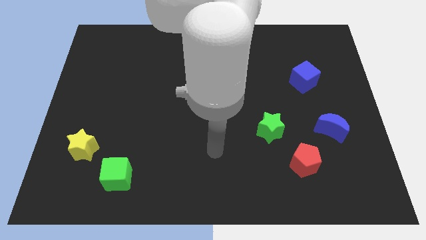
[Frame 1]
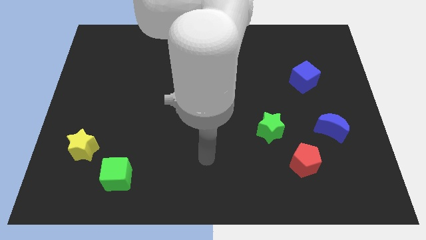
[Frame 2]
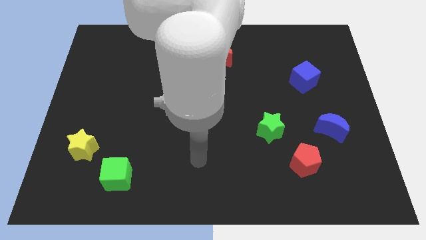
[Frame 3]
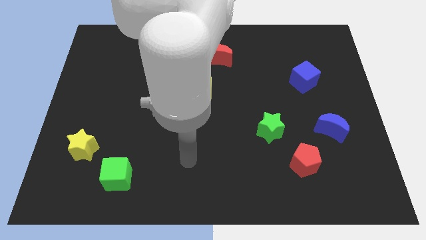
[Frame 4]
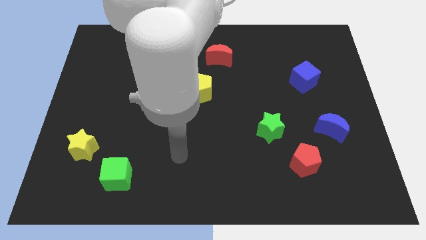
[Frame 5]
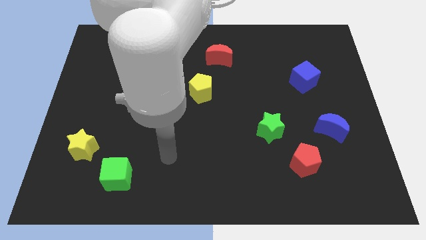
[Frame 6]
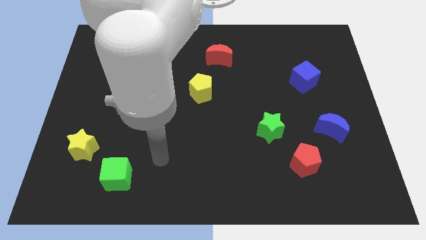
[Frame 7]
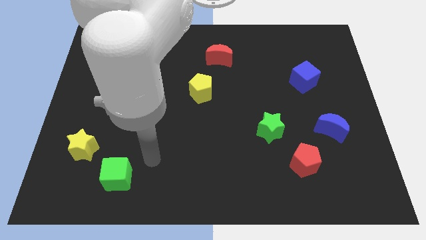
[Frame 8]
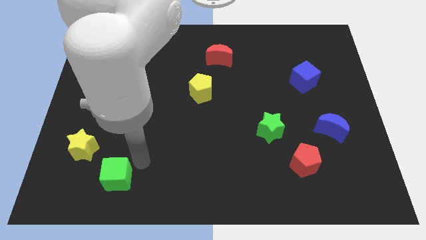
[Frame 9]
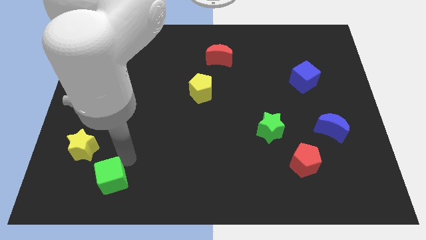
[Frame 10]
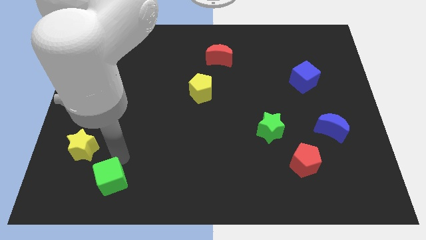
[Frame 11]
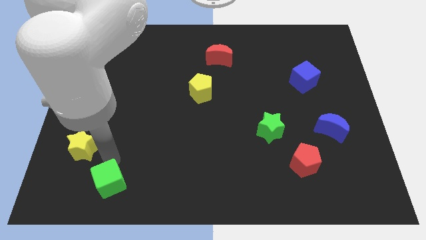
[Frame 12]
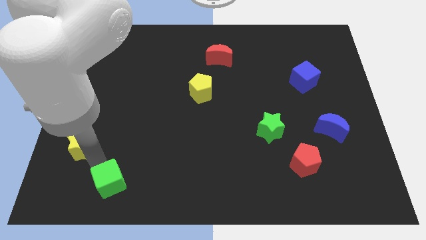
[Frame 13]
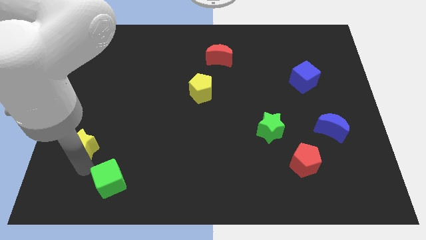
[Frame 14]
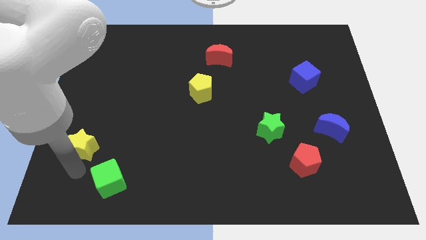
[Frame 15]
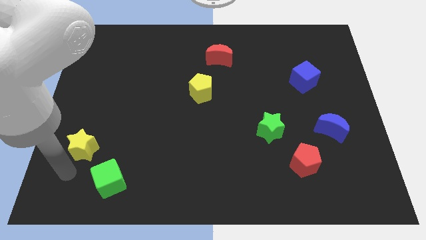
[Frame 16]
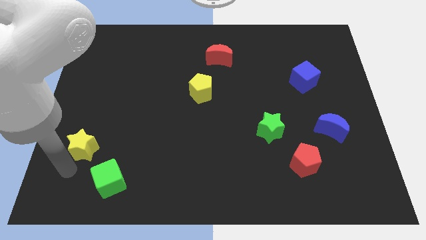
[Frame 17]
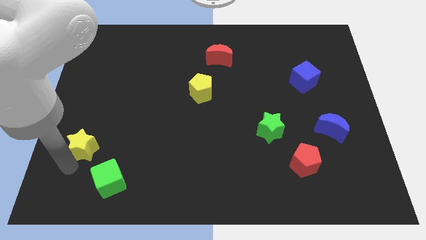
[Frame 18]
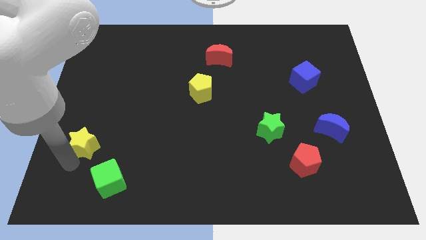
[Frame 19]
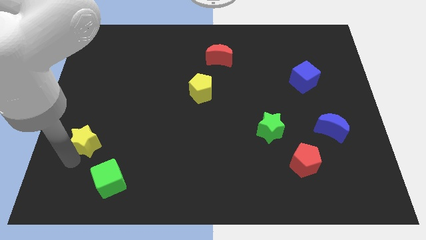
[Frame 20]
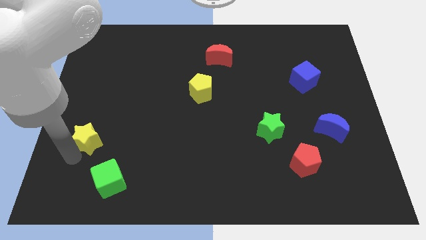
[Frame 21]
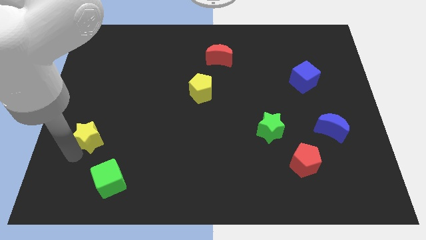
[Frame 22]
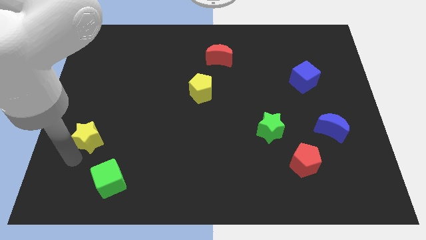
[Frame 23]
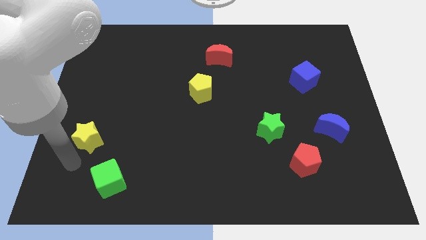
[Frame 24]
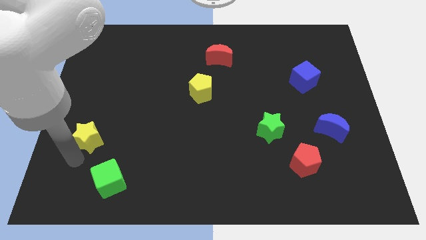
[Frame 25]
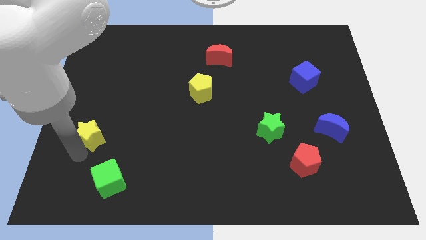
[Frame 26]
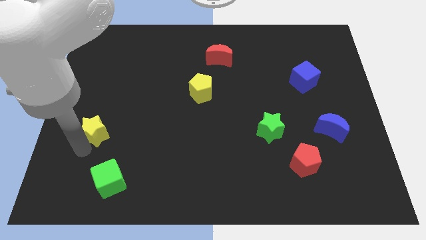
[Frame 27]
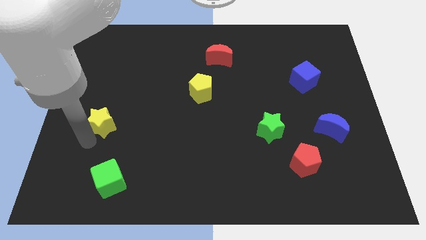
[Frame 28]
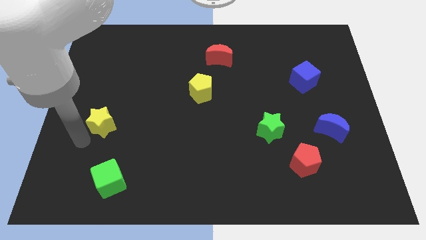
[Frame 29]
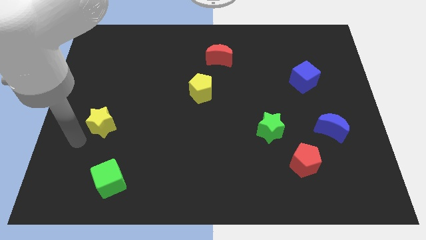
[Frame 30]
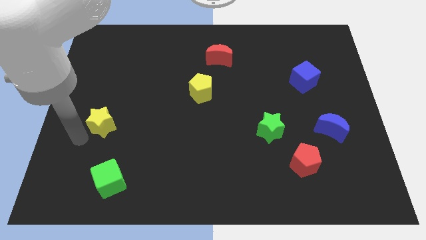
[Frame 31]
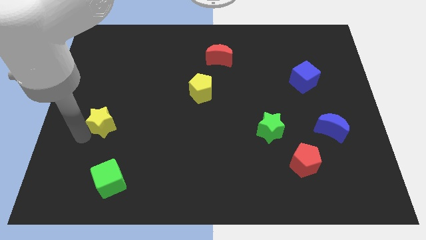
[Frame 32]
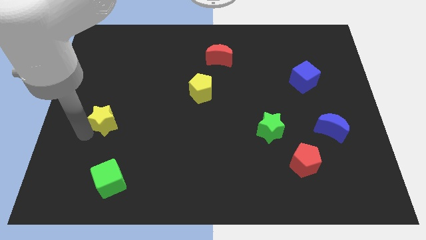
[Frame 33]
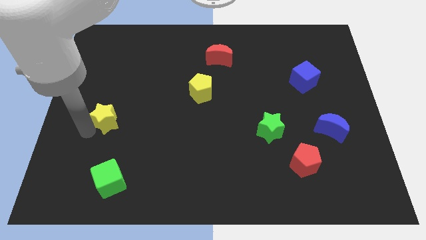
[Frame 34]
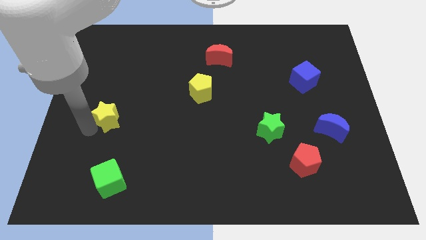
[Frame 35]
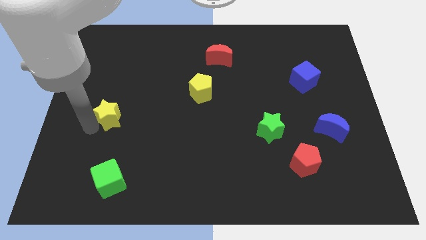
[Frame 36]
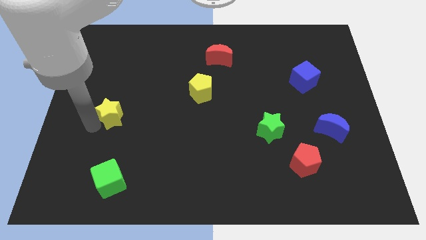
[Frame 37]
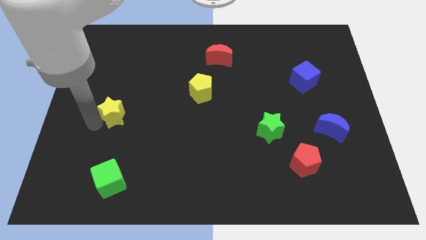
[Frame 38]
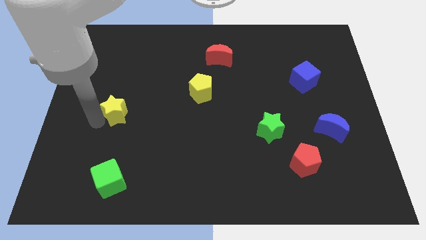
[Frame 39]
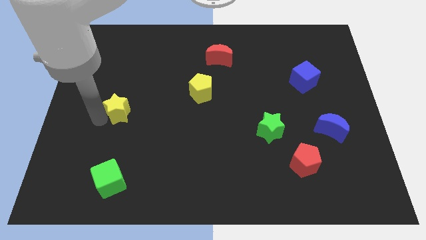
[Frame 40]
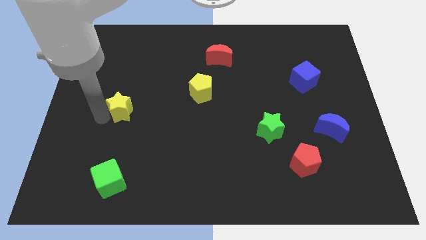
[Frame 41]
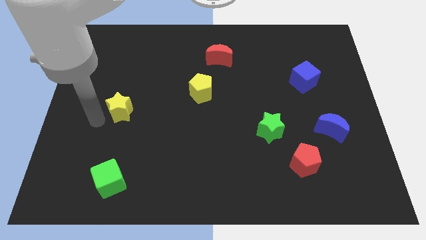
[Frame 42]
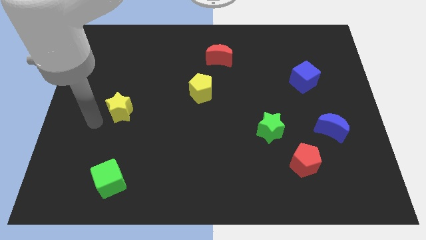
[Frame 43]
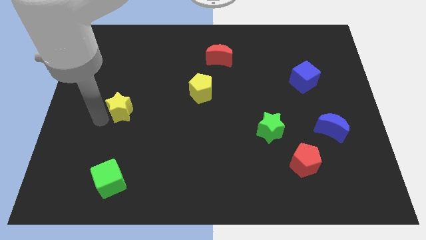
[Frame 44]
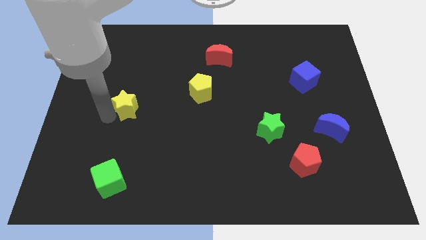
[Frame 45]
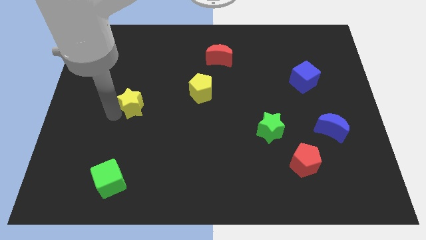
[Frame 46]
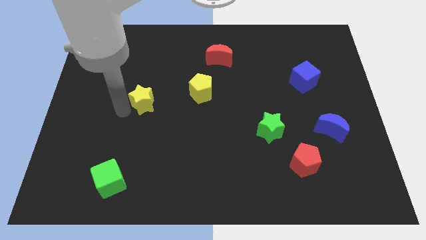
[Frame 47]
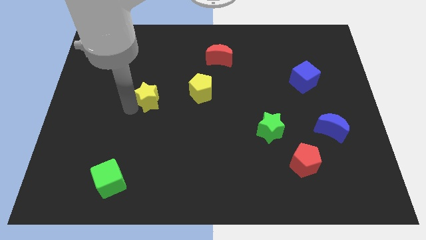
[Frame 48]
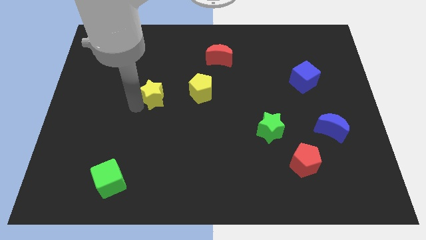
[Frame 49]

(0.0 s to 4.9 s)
push the yellow star upwards and right

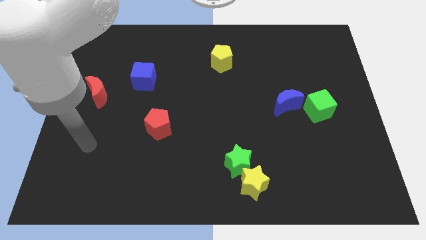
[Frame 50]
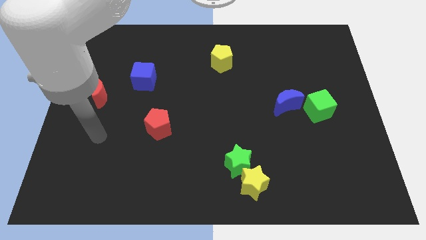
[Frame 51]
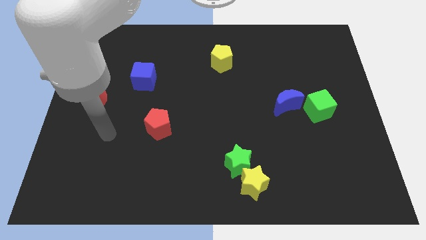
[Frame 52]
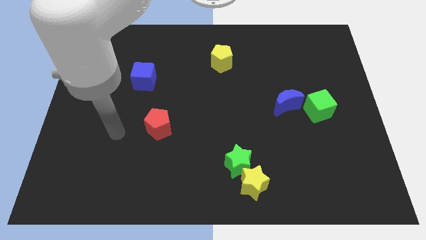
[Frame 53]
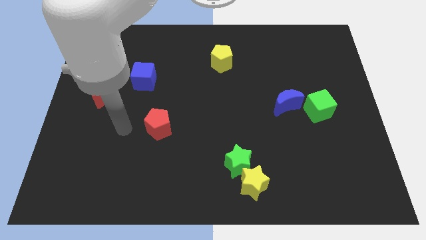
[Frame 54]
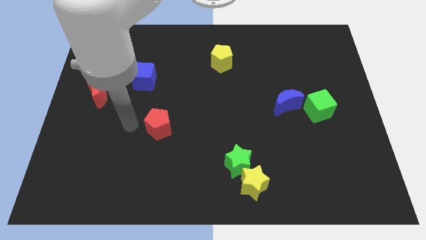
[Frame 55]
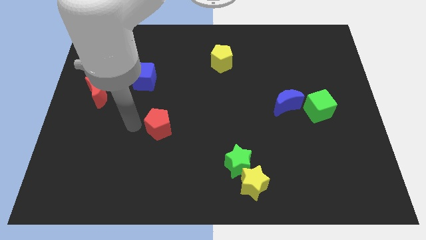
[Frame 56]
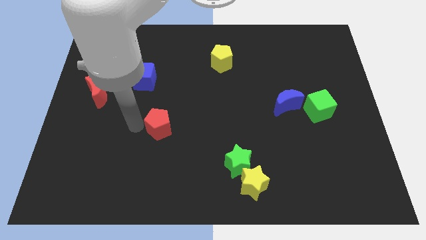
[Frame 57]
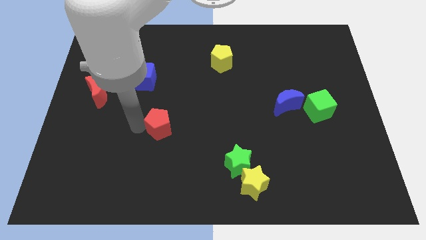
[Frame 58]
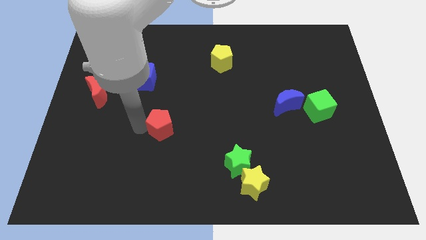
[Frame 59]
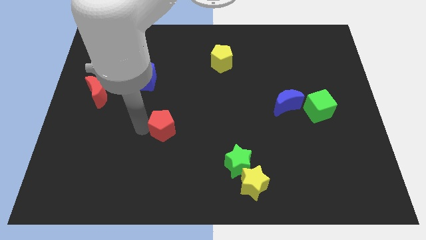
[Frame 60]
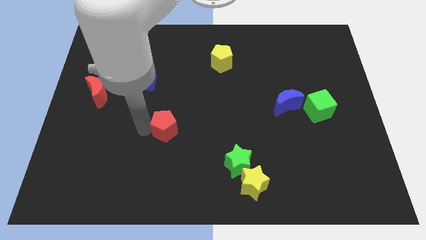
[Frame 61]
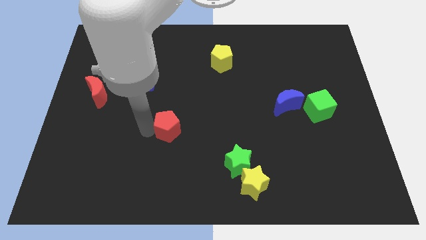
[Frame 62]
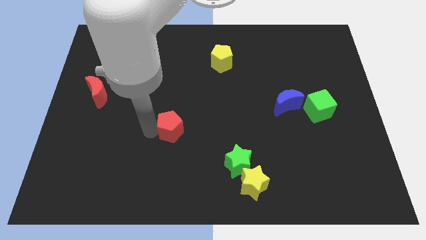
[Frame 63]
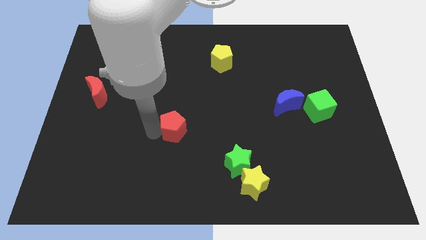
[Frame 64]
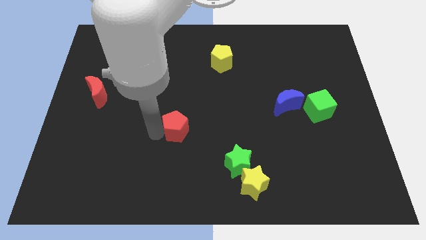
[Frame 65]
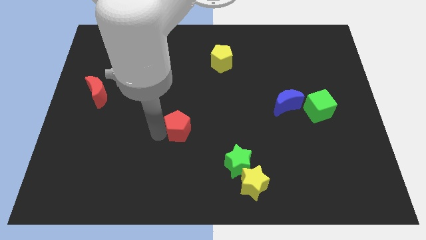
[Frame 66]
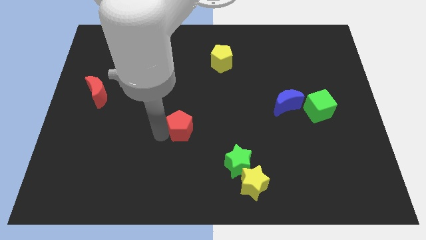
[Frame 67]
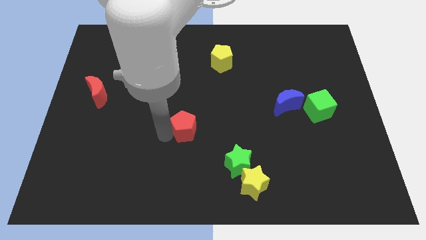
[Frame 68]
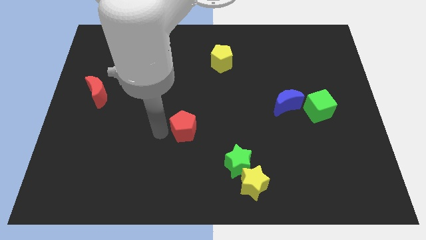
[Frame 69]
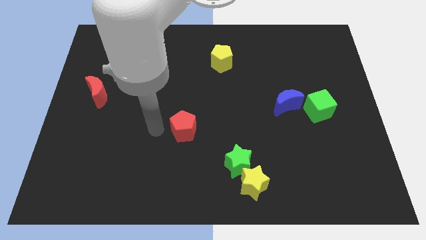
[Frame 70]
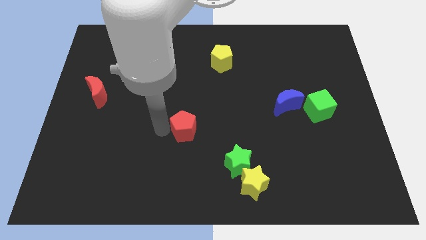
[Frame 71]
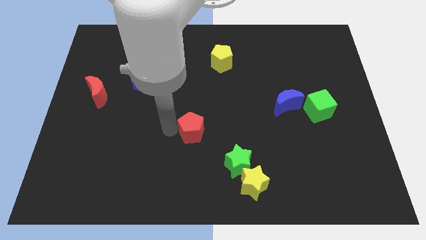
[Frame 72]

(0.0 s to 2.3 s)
slightly move the red pentagon right

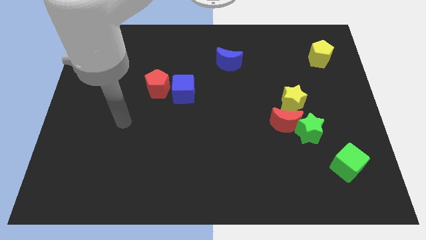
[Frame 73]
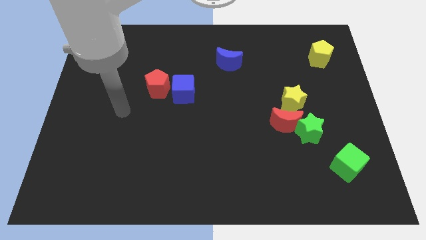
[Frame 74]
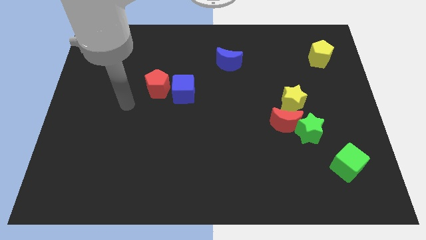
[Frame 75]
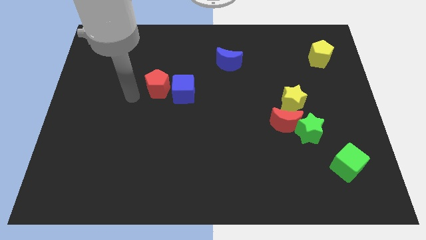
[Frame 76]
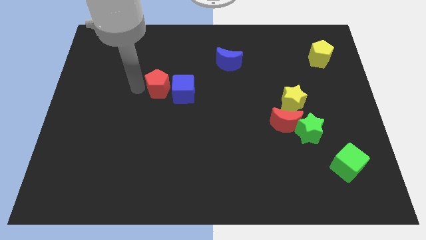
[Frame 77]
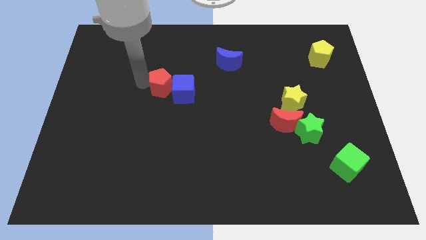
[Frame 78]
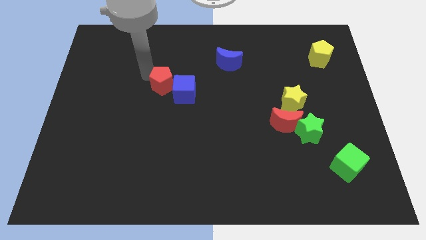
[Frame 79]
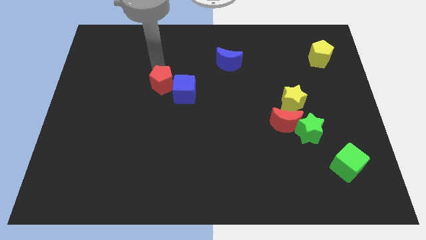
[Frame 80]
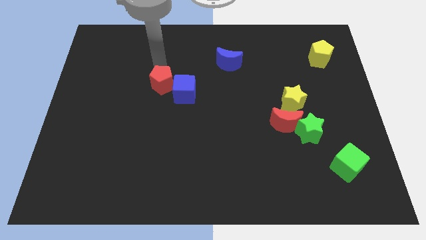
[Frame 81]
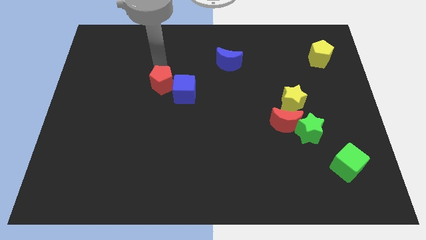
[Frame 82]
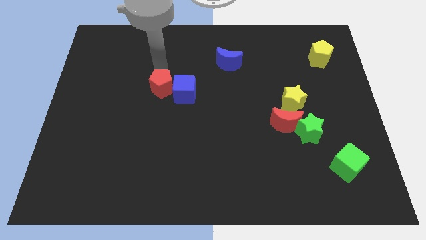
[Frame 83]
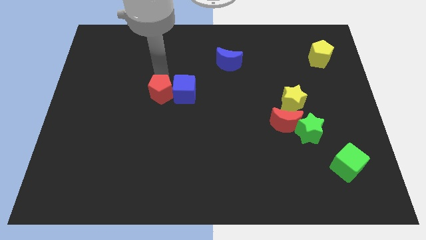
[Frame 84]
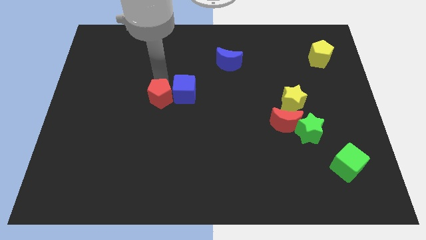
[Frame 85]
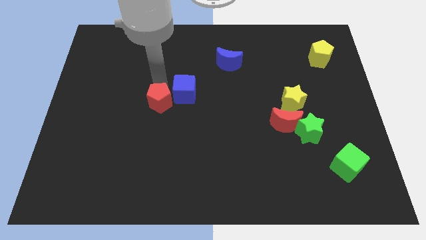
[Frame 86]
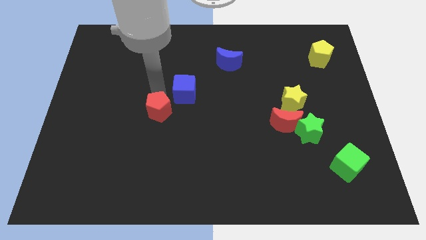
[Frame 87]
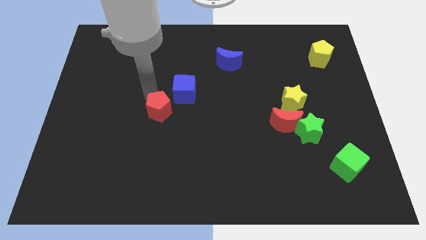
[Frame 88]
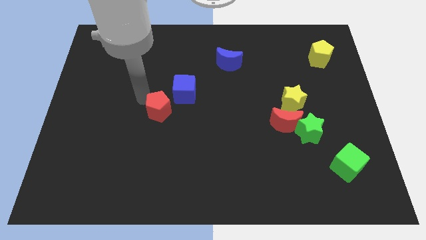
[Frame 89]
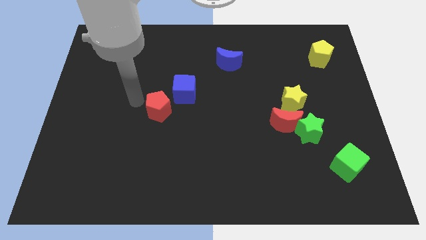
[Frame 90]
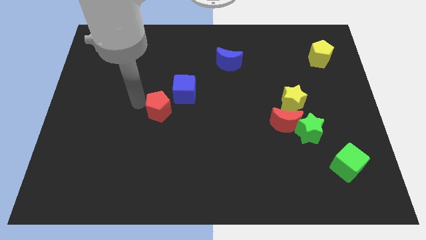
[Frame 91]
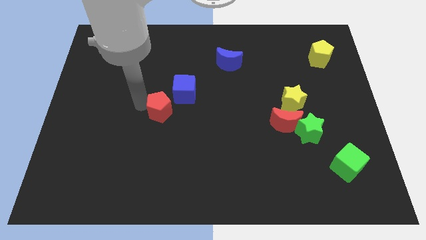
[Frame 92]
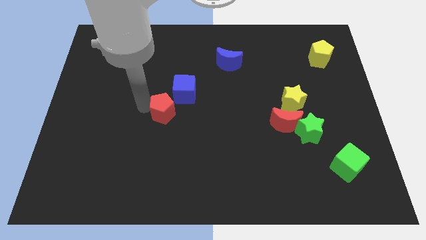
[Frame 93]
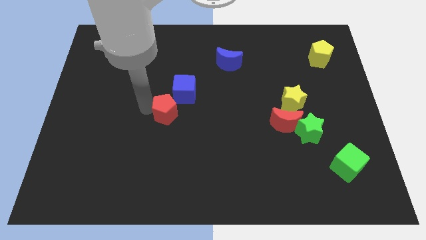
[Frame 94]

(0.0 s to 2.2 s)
slide the red pentagon a bit down and right
